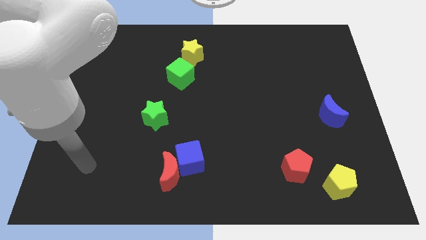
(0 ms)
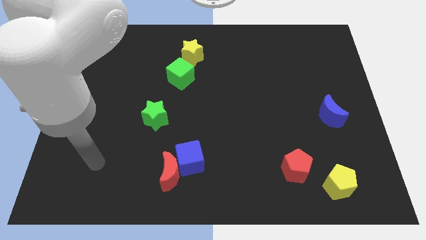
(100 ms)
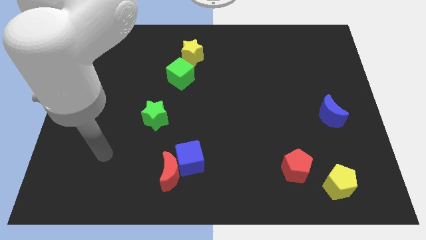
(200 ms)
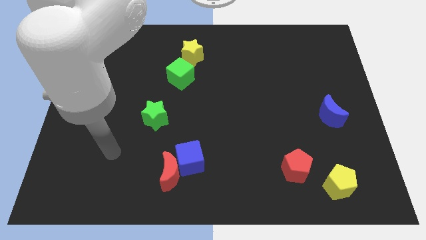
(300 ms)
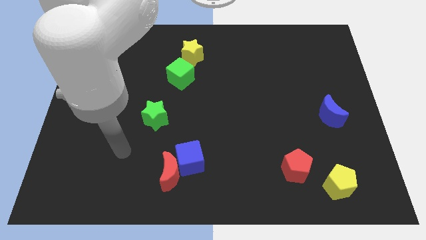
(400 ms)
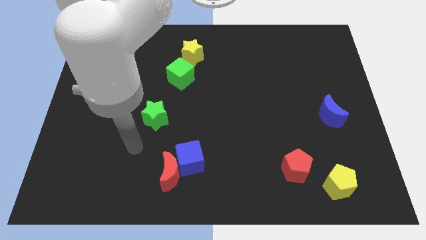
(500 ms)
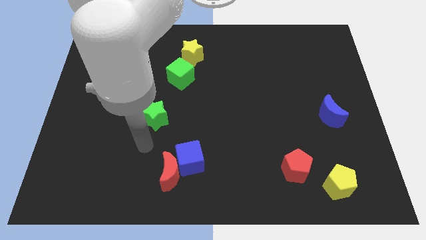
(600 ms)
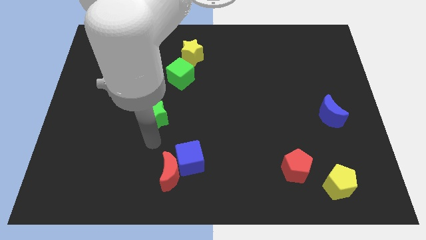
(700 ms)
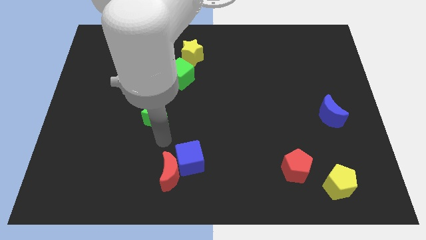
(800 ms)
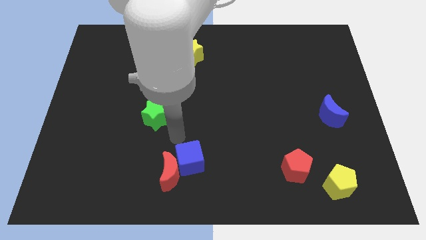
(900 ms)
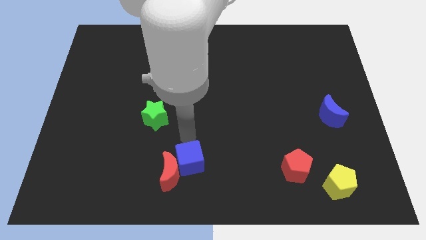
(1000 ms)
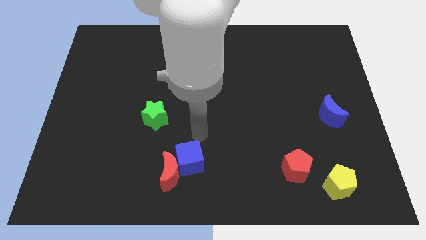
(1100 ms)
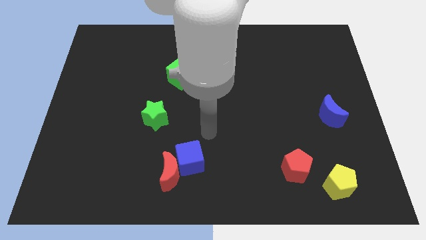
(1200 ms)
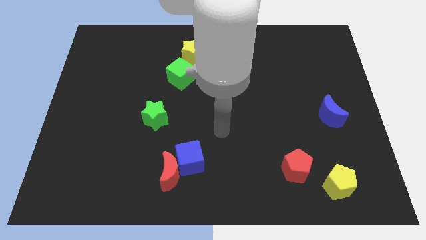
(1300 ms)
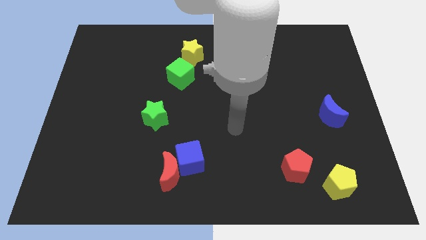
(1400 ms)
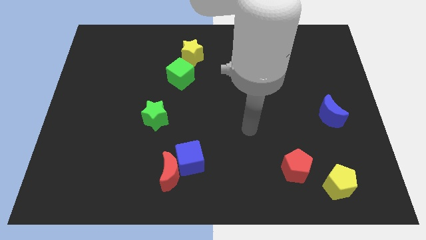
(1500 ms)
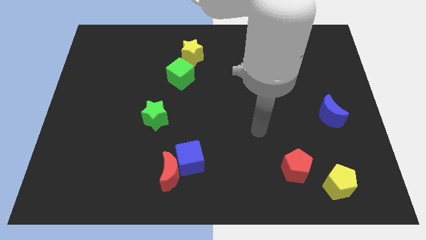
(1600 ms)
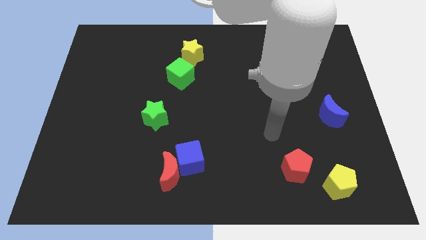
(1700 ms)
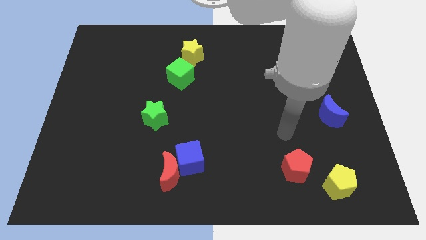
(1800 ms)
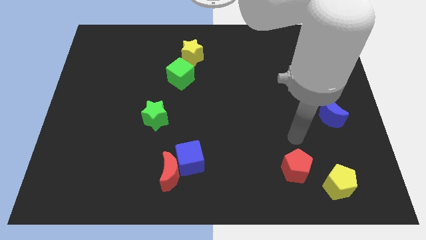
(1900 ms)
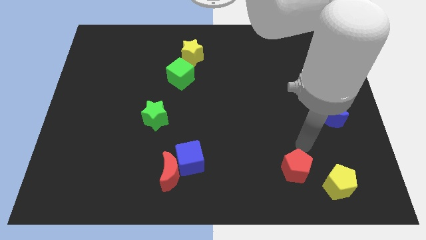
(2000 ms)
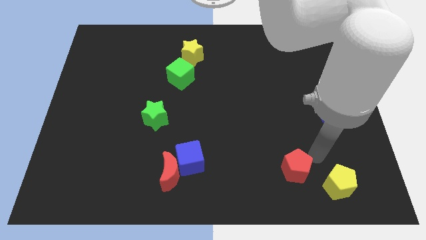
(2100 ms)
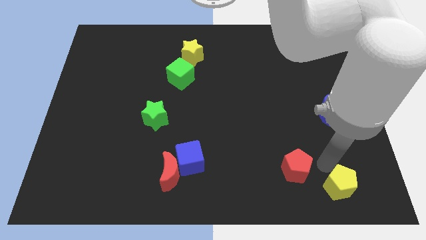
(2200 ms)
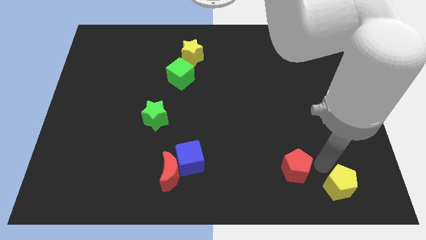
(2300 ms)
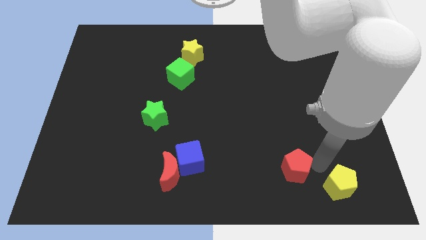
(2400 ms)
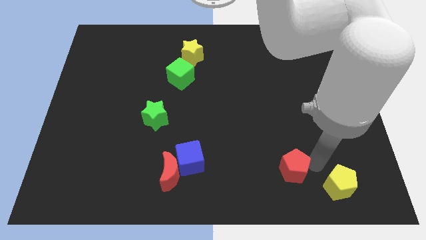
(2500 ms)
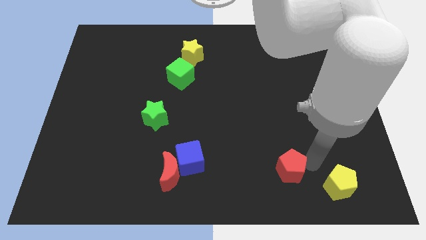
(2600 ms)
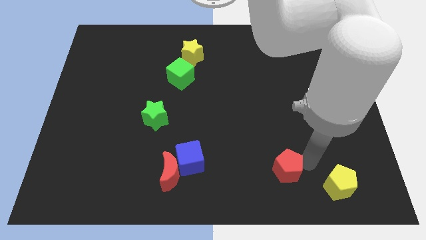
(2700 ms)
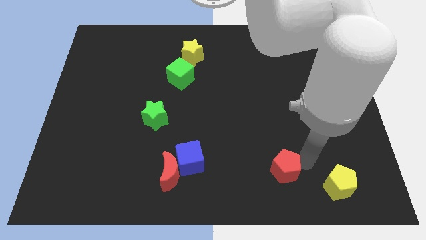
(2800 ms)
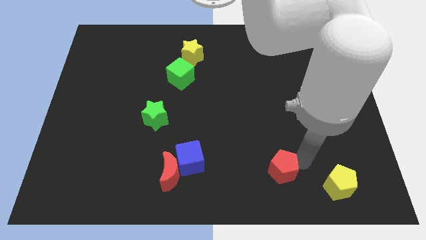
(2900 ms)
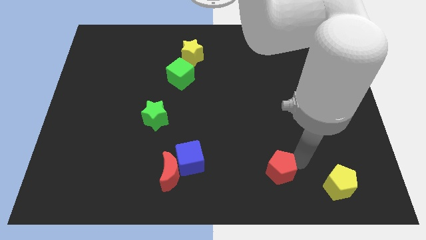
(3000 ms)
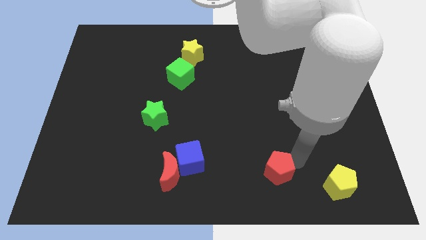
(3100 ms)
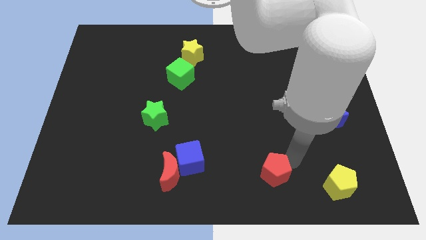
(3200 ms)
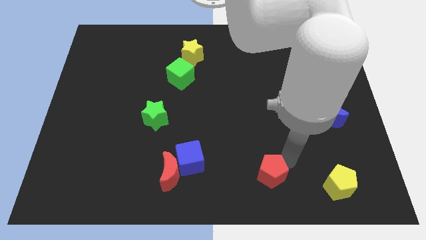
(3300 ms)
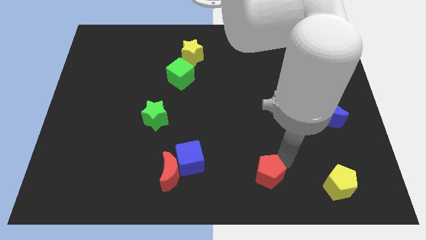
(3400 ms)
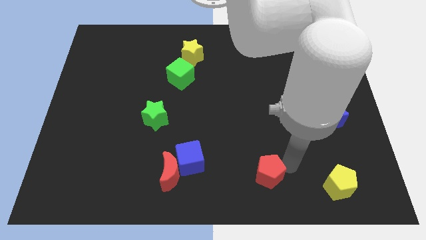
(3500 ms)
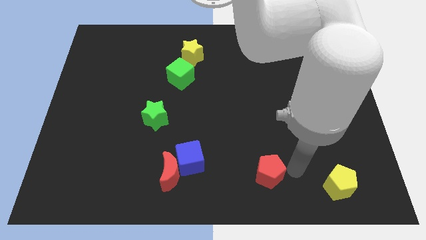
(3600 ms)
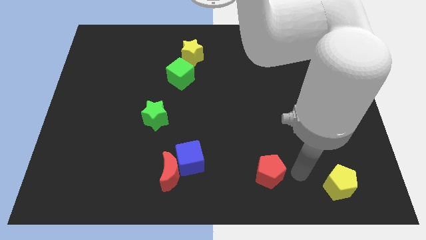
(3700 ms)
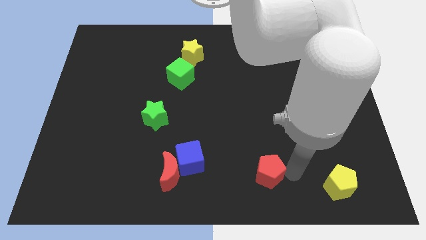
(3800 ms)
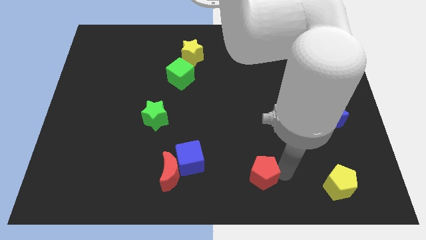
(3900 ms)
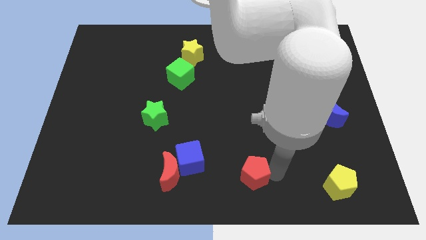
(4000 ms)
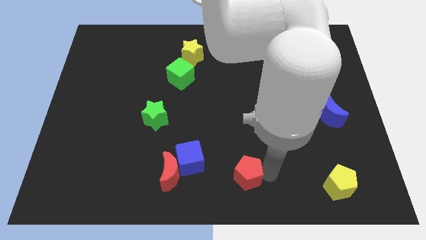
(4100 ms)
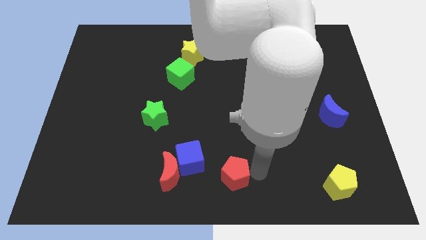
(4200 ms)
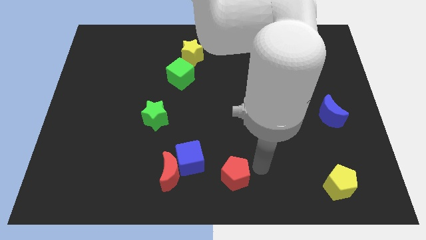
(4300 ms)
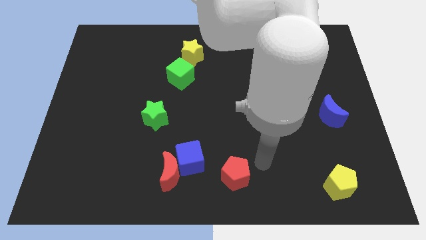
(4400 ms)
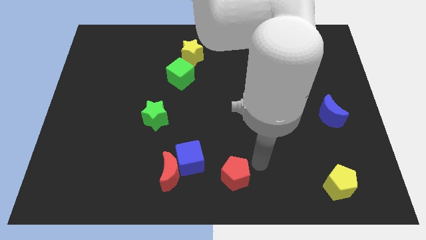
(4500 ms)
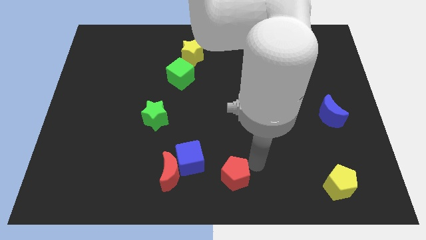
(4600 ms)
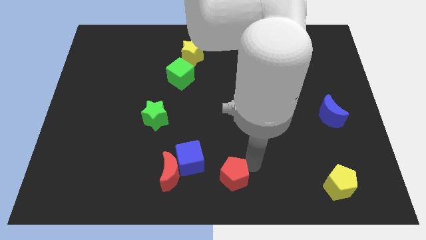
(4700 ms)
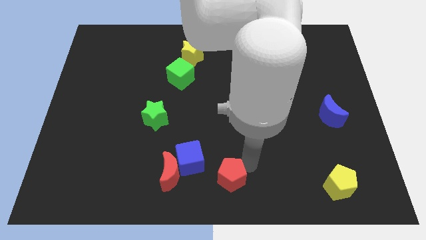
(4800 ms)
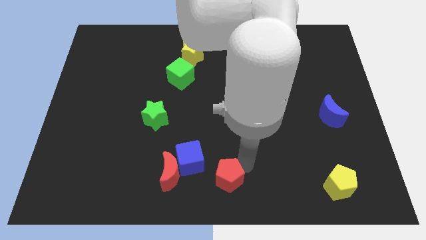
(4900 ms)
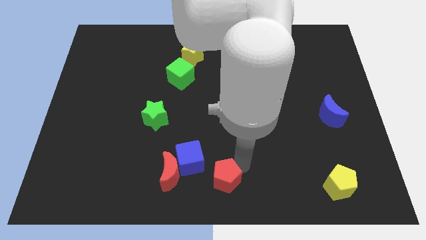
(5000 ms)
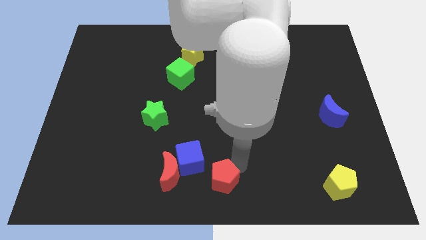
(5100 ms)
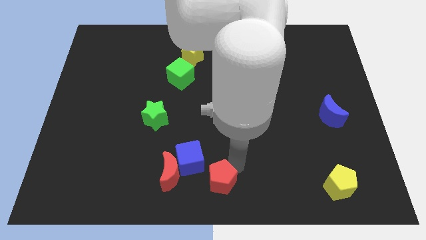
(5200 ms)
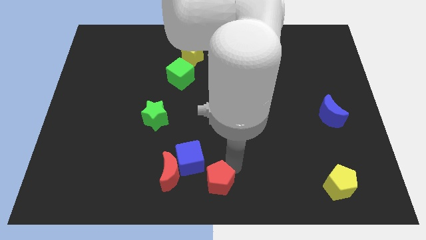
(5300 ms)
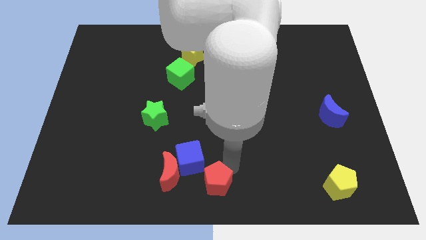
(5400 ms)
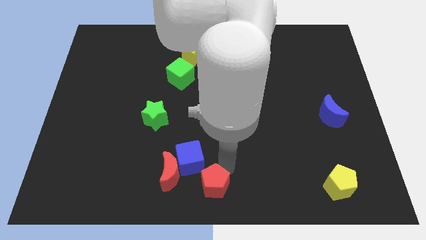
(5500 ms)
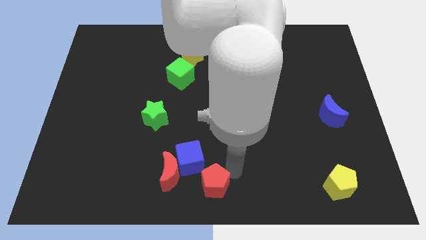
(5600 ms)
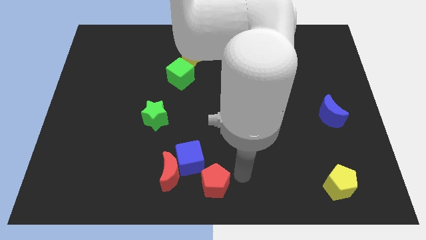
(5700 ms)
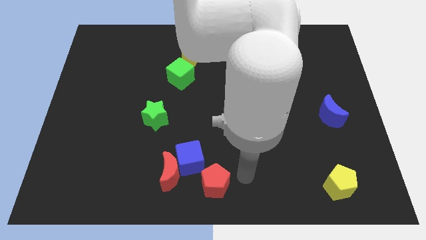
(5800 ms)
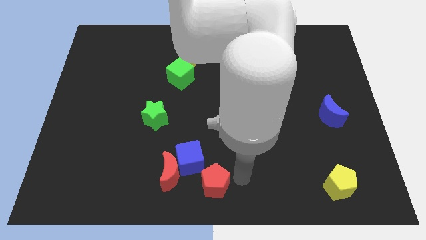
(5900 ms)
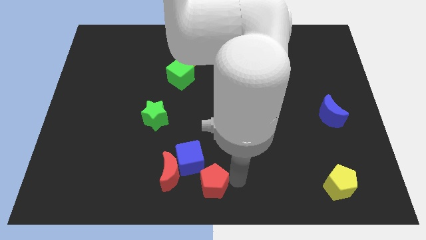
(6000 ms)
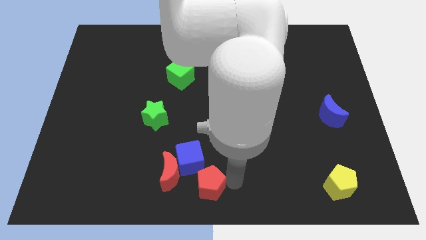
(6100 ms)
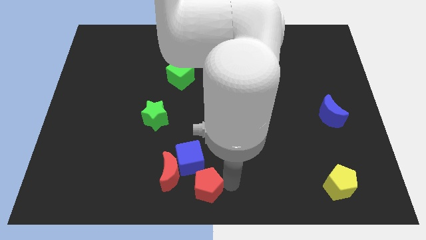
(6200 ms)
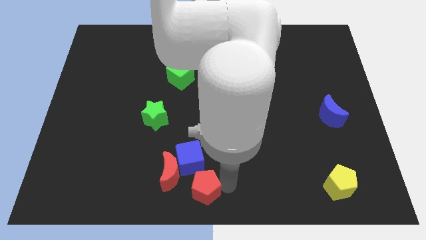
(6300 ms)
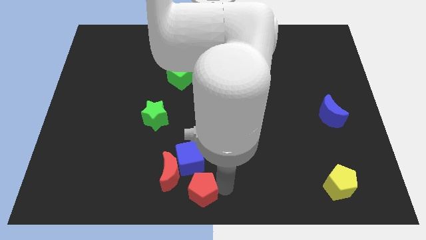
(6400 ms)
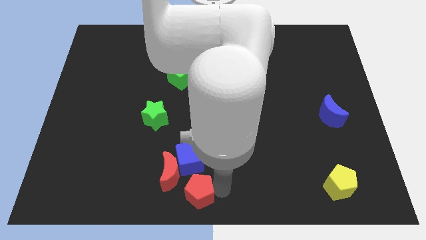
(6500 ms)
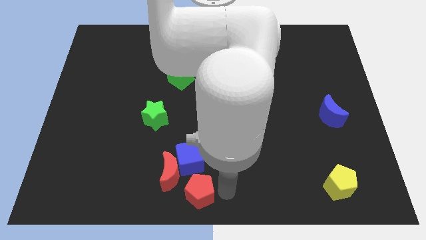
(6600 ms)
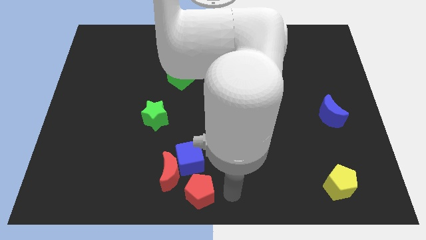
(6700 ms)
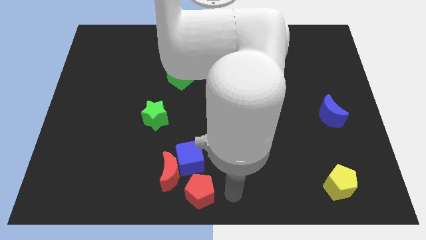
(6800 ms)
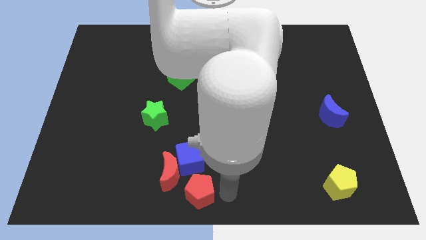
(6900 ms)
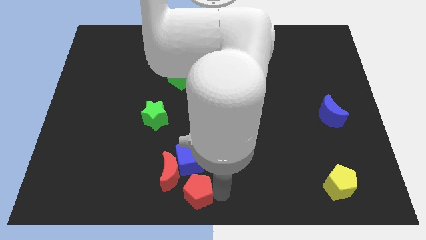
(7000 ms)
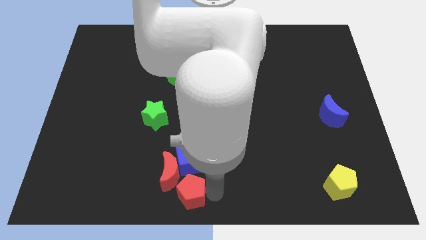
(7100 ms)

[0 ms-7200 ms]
slide the red pentagon towards the red moon
